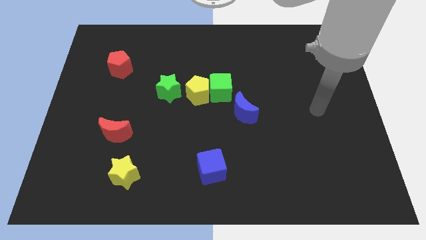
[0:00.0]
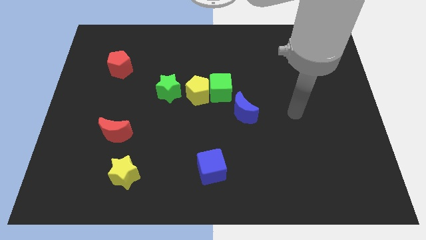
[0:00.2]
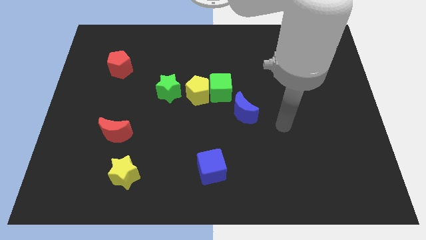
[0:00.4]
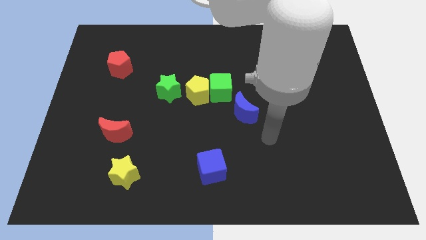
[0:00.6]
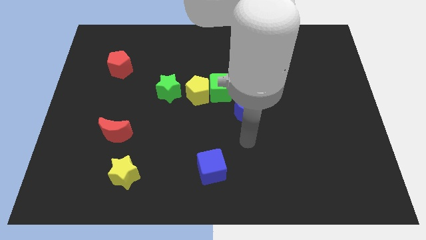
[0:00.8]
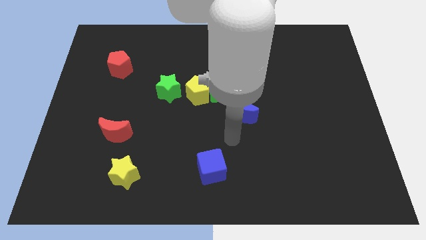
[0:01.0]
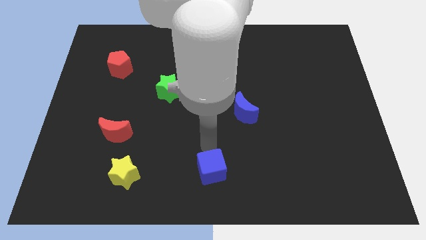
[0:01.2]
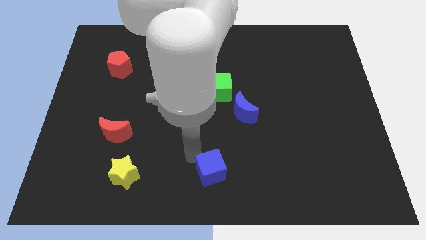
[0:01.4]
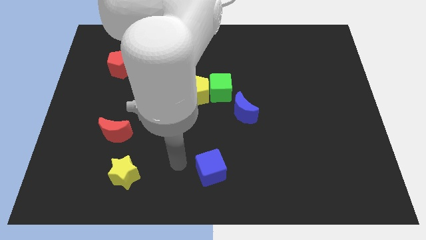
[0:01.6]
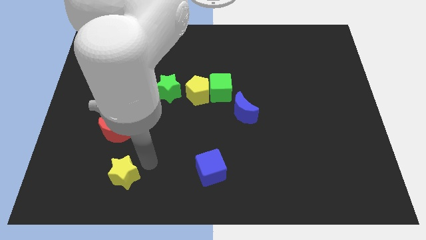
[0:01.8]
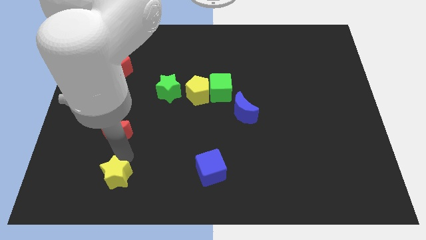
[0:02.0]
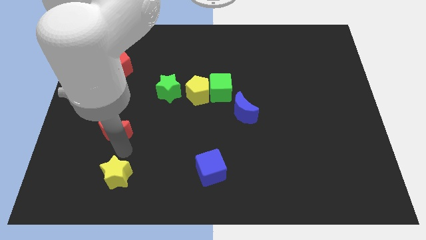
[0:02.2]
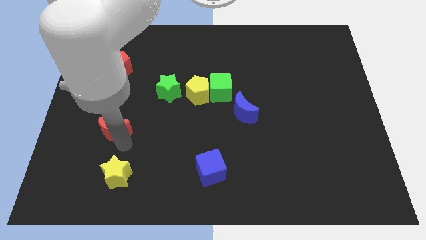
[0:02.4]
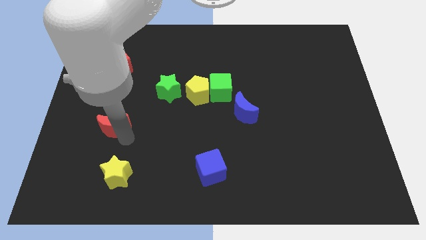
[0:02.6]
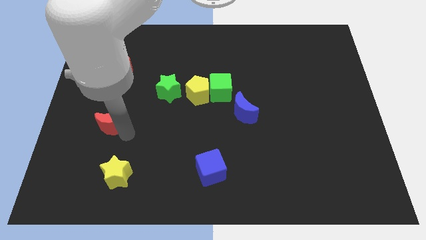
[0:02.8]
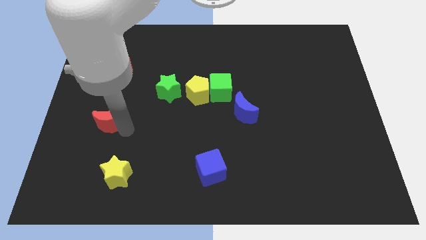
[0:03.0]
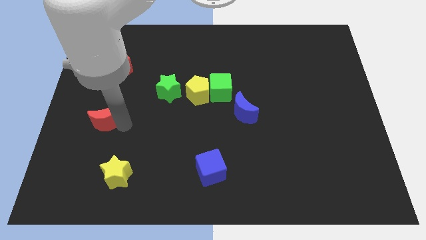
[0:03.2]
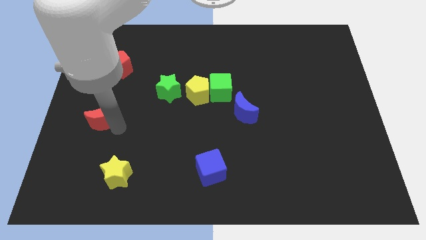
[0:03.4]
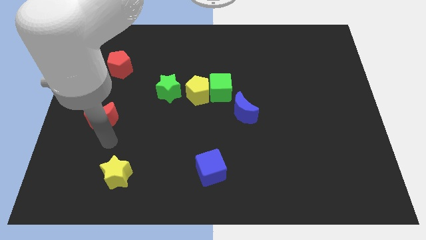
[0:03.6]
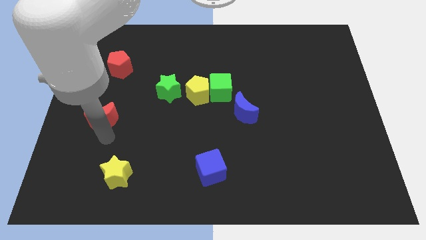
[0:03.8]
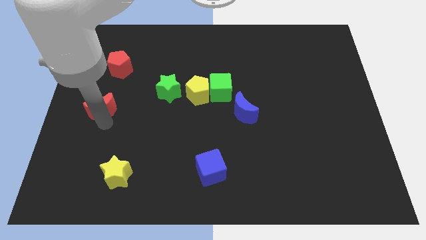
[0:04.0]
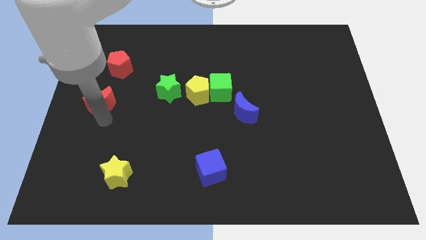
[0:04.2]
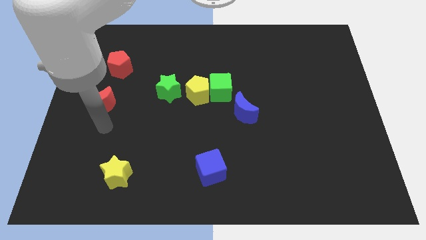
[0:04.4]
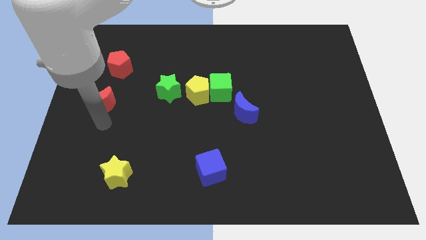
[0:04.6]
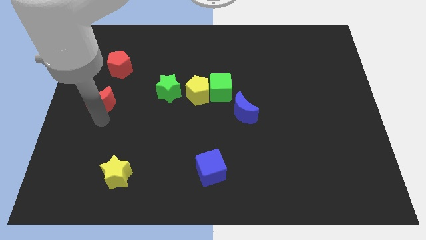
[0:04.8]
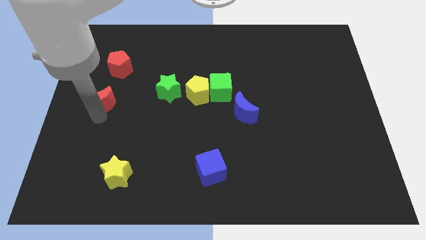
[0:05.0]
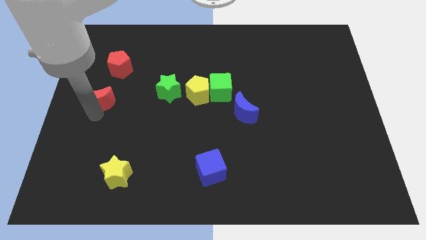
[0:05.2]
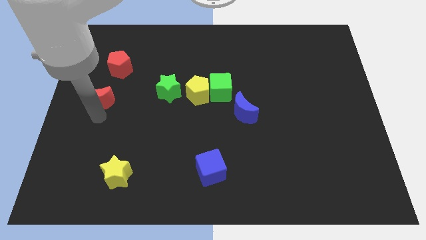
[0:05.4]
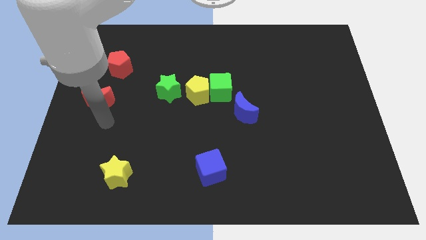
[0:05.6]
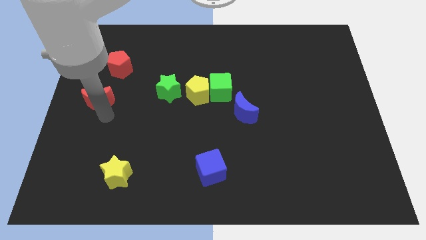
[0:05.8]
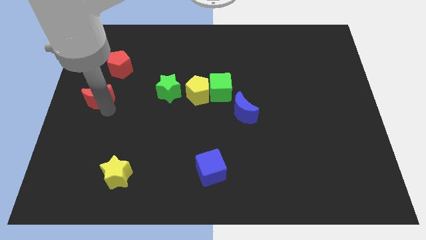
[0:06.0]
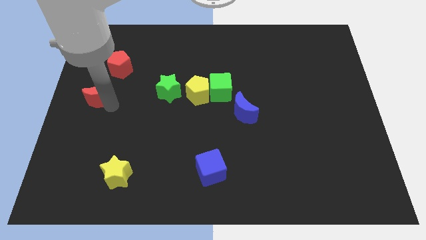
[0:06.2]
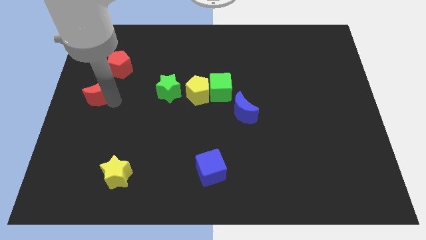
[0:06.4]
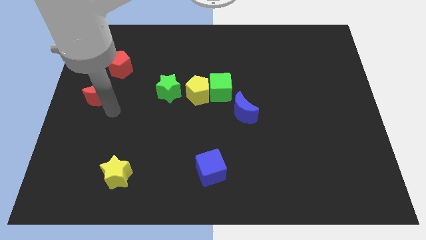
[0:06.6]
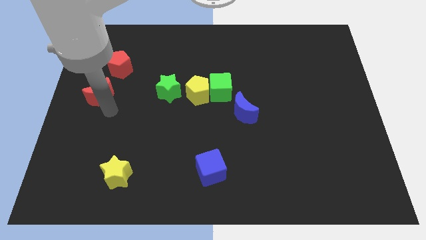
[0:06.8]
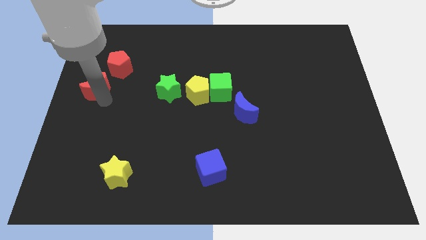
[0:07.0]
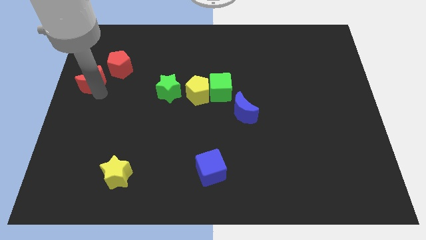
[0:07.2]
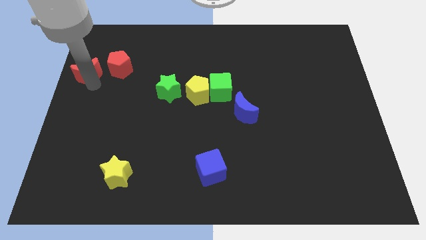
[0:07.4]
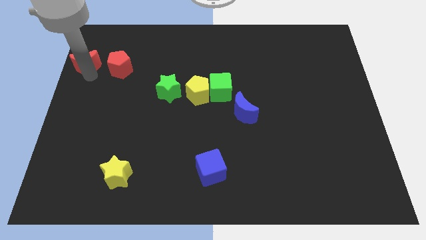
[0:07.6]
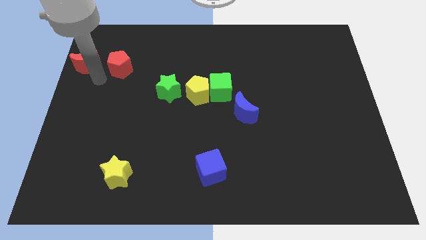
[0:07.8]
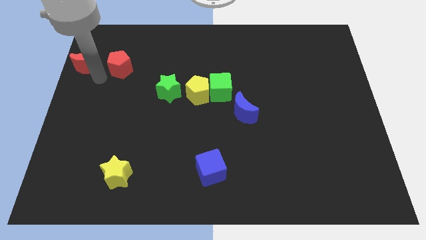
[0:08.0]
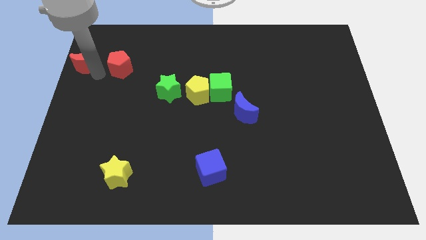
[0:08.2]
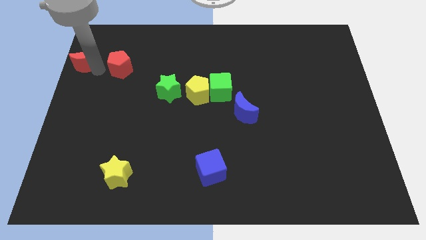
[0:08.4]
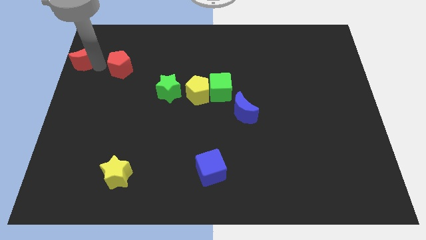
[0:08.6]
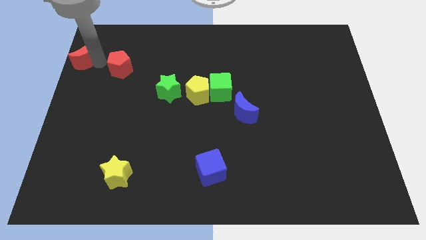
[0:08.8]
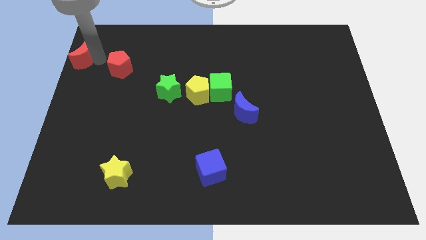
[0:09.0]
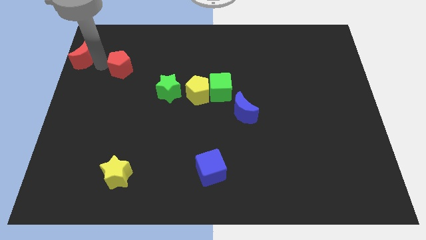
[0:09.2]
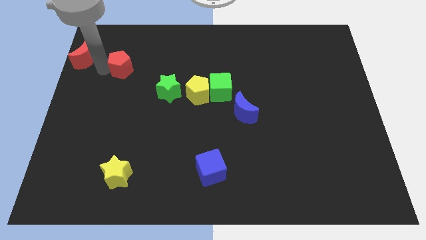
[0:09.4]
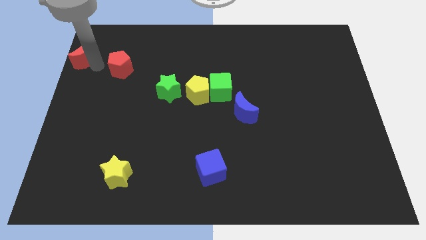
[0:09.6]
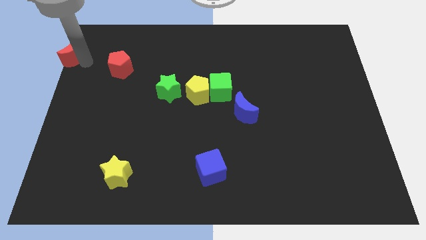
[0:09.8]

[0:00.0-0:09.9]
push the red moon to the top left

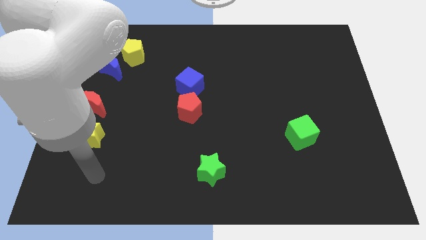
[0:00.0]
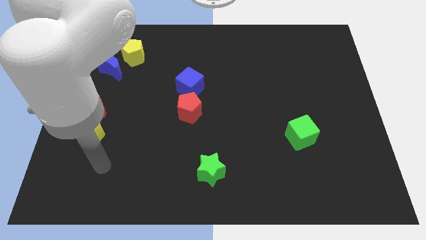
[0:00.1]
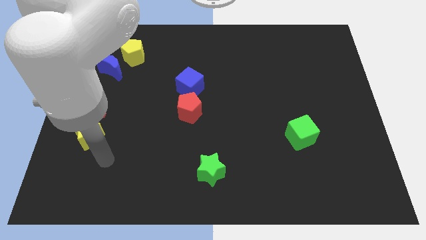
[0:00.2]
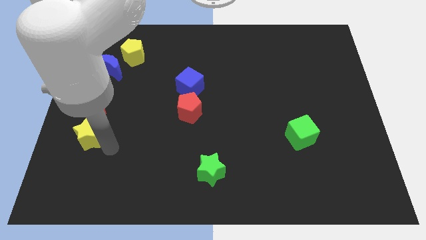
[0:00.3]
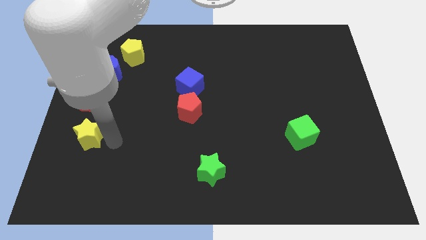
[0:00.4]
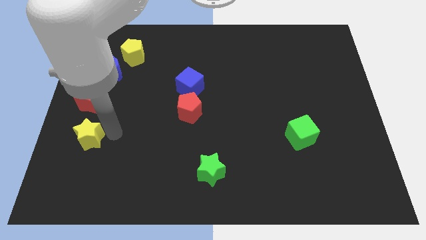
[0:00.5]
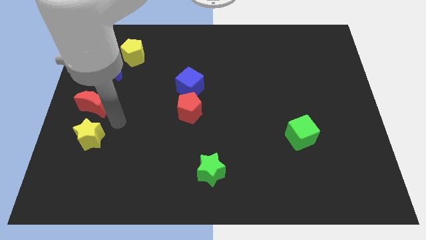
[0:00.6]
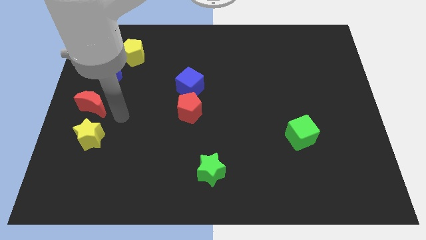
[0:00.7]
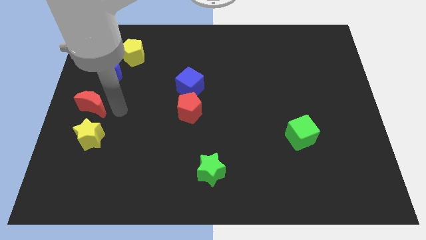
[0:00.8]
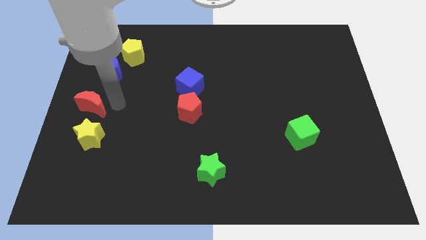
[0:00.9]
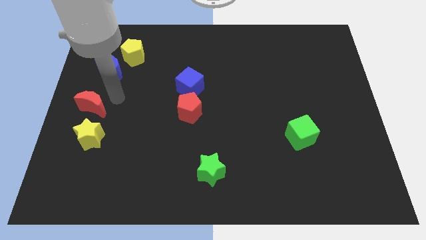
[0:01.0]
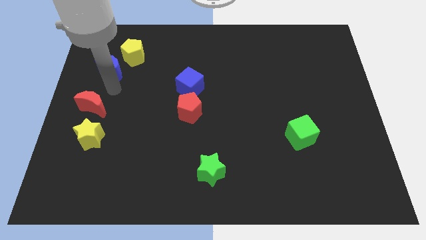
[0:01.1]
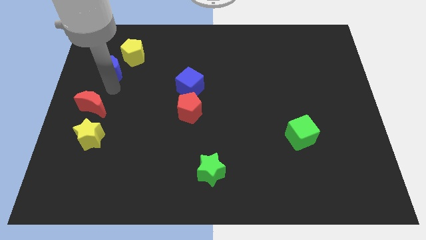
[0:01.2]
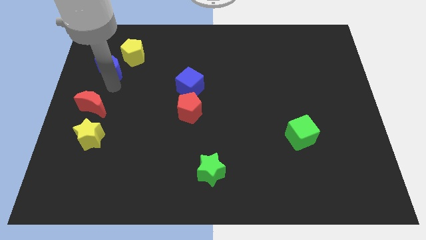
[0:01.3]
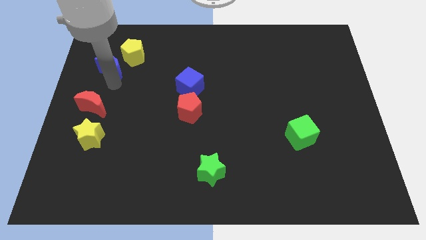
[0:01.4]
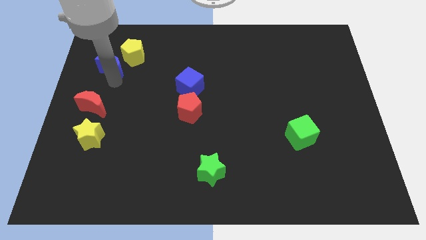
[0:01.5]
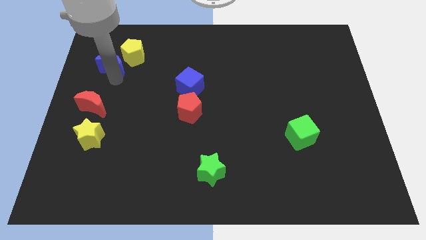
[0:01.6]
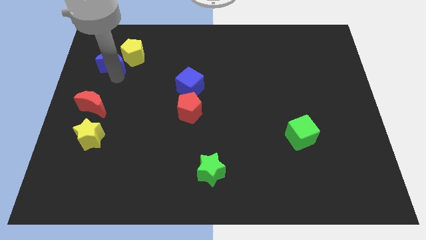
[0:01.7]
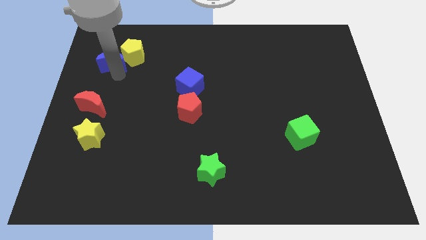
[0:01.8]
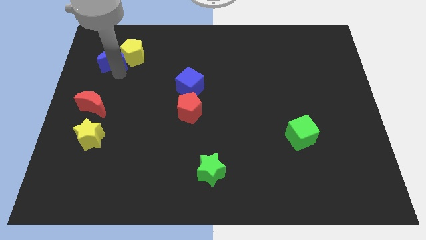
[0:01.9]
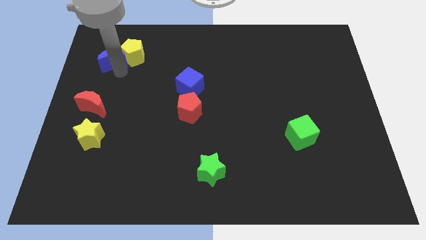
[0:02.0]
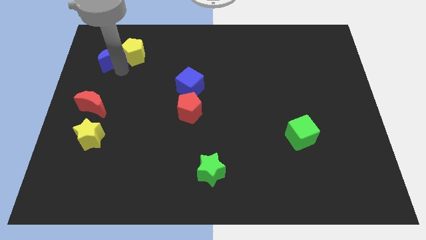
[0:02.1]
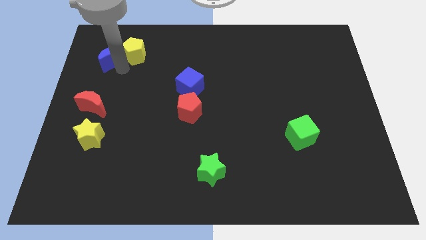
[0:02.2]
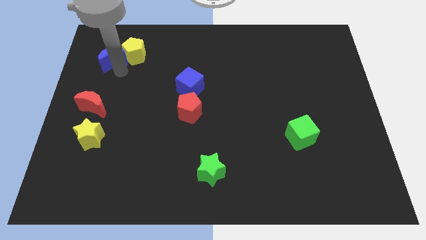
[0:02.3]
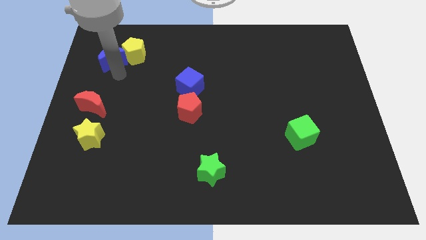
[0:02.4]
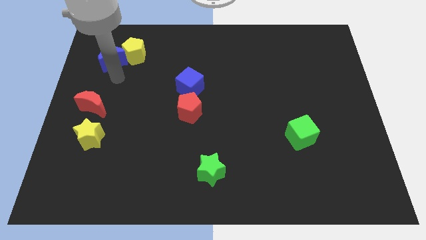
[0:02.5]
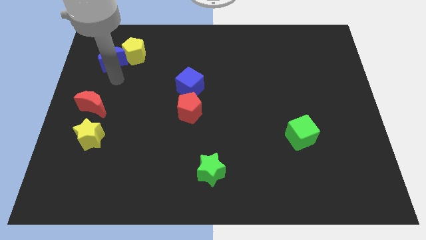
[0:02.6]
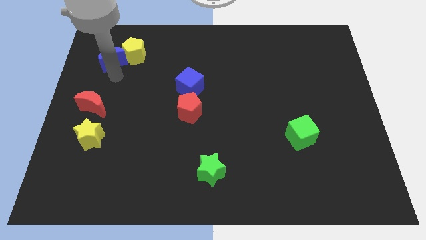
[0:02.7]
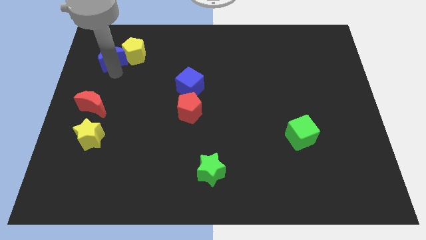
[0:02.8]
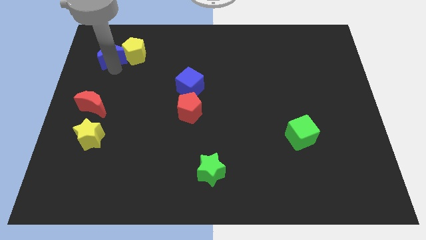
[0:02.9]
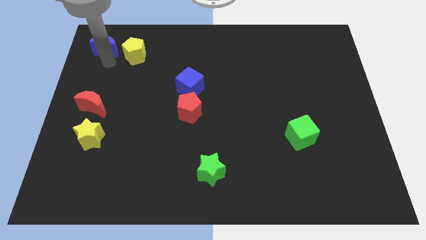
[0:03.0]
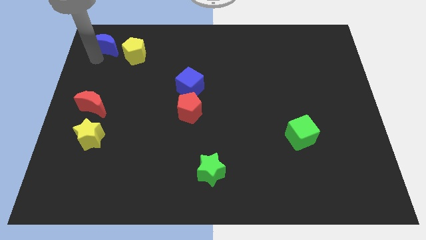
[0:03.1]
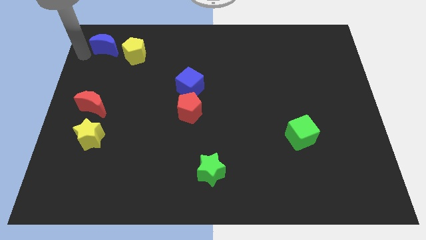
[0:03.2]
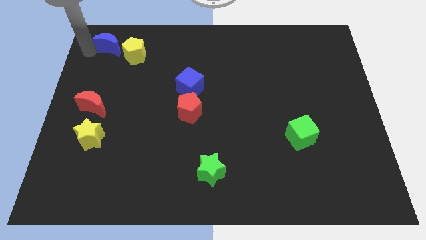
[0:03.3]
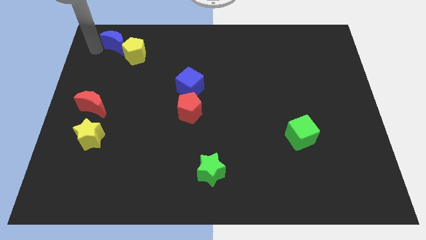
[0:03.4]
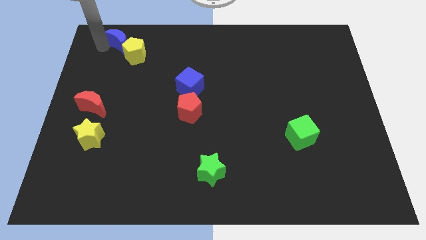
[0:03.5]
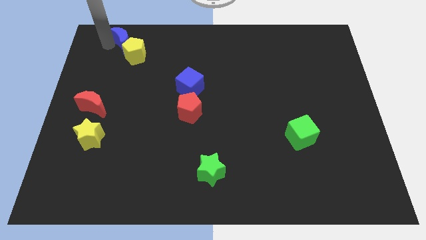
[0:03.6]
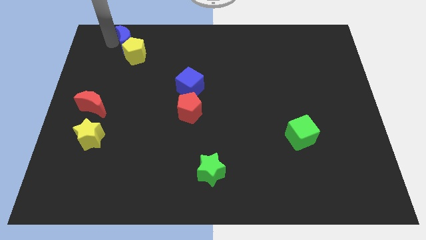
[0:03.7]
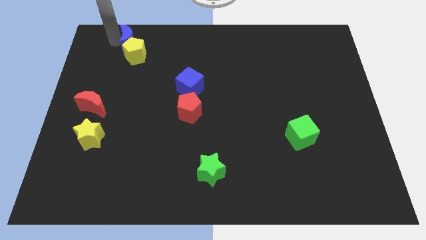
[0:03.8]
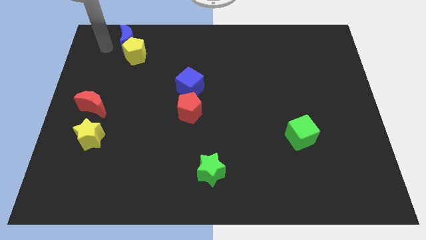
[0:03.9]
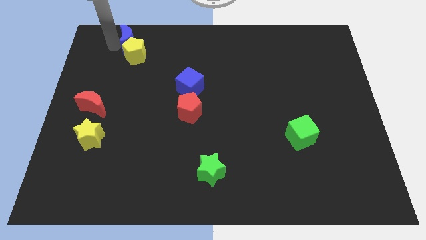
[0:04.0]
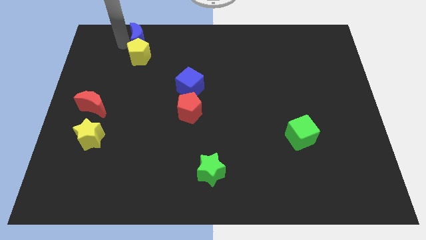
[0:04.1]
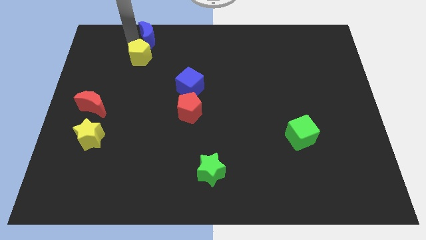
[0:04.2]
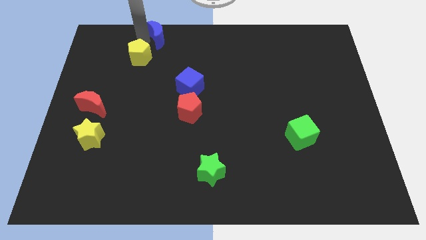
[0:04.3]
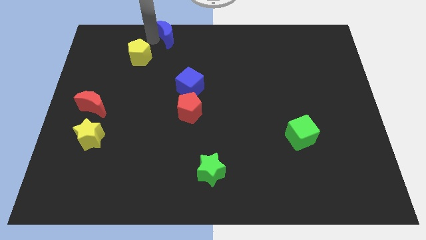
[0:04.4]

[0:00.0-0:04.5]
push the blue moon to the top
